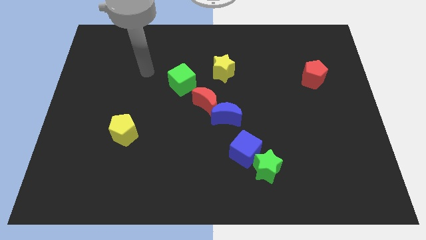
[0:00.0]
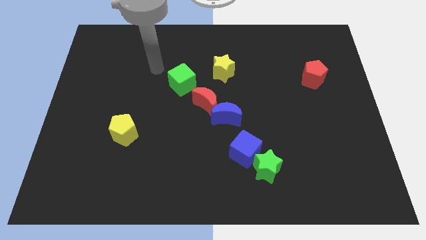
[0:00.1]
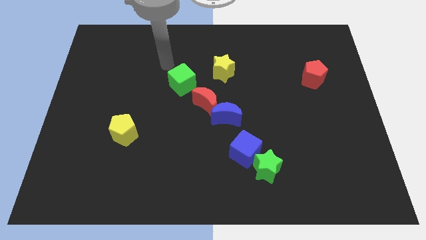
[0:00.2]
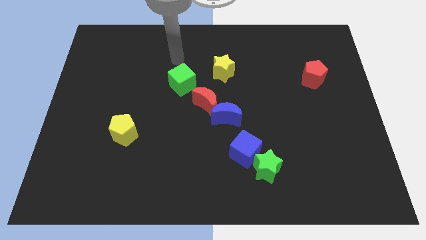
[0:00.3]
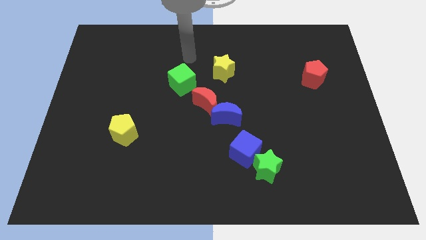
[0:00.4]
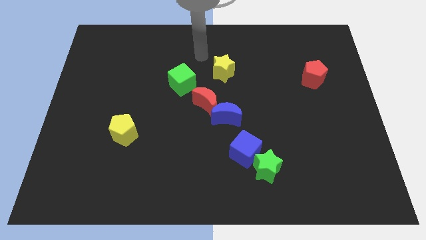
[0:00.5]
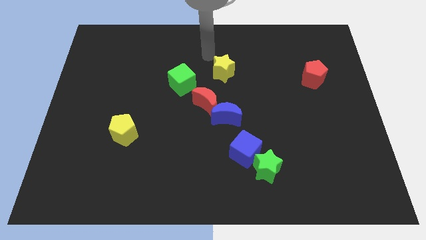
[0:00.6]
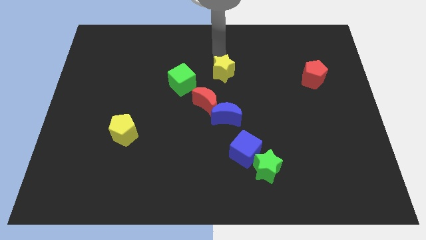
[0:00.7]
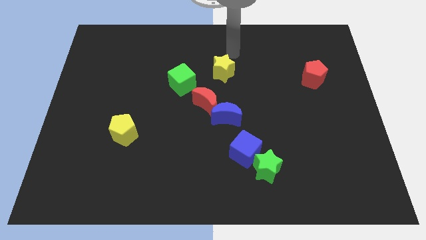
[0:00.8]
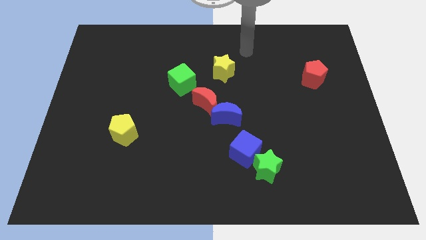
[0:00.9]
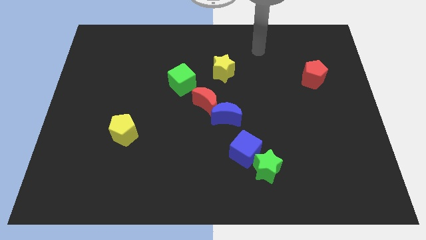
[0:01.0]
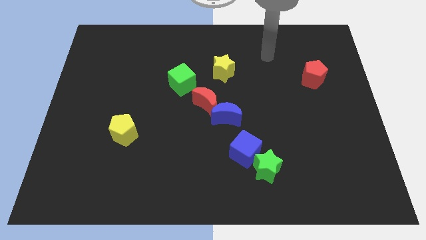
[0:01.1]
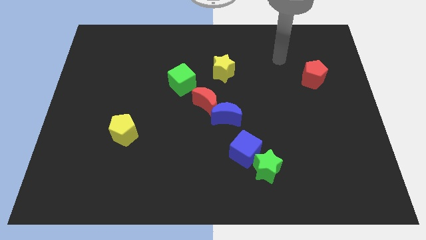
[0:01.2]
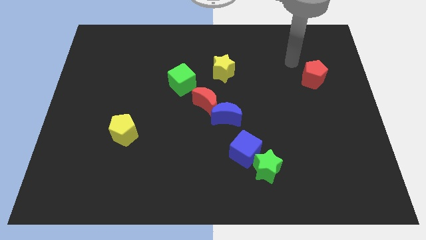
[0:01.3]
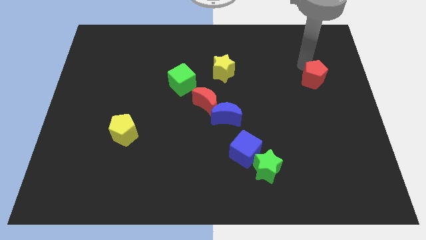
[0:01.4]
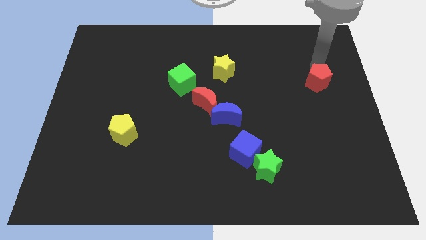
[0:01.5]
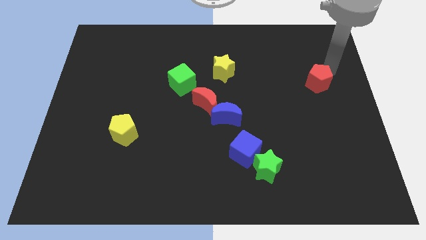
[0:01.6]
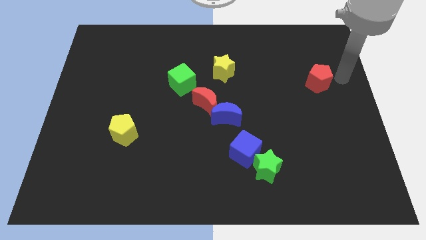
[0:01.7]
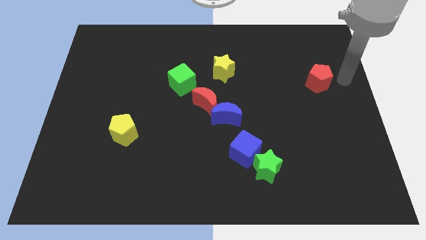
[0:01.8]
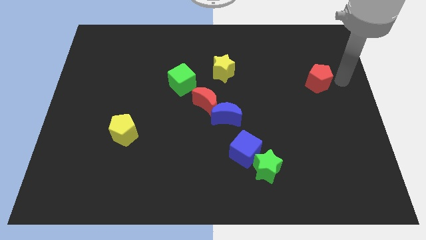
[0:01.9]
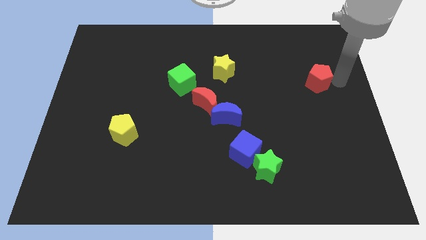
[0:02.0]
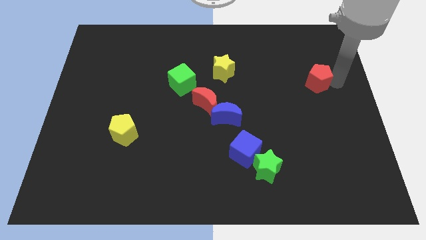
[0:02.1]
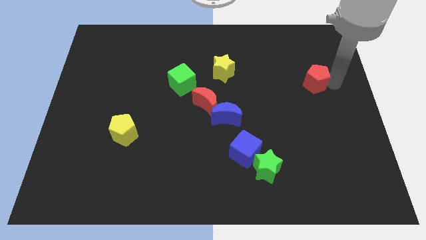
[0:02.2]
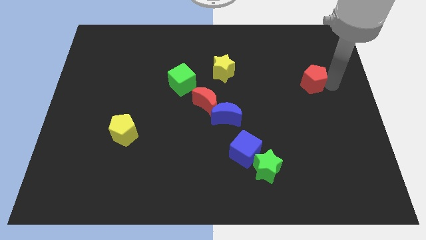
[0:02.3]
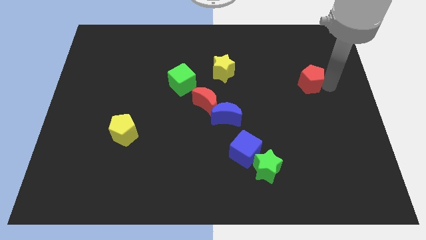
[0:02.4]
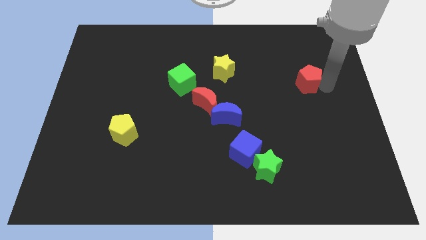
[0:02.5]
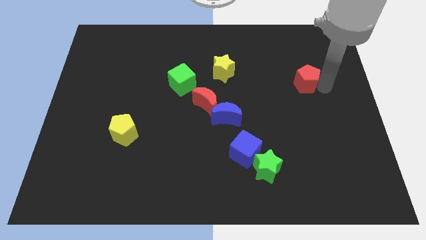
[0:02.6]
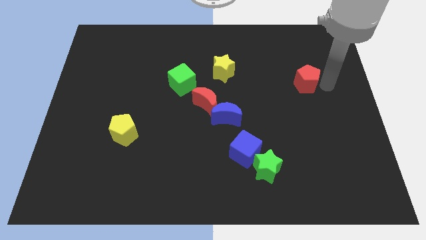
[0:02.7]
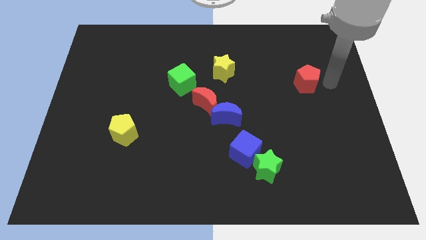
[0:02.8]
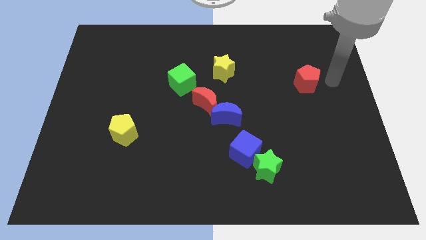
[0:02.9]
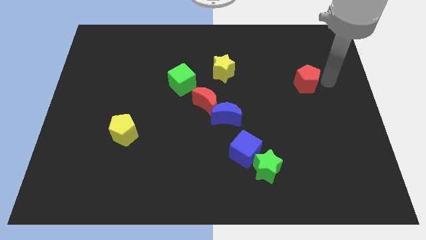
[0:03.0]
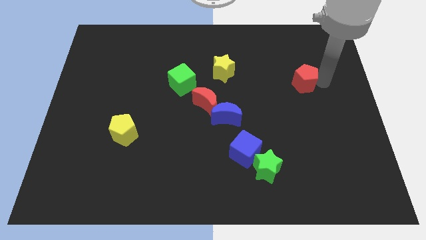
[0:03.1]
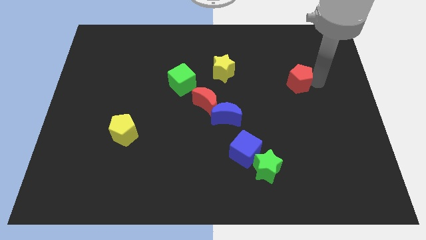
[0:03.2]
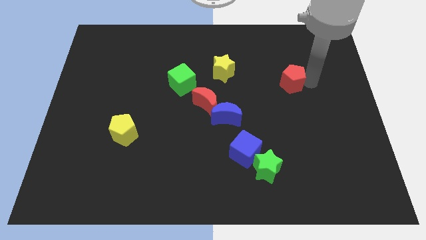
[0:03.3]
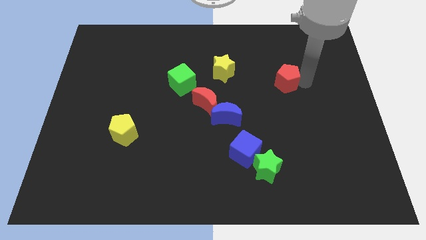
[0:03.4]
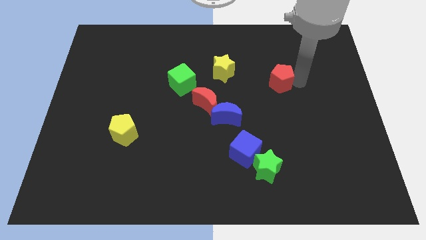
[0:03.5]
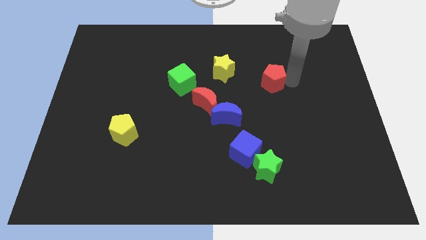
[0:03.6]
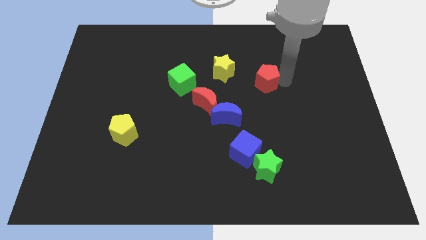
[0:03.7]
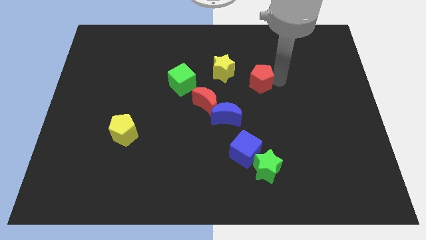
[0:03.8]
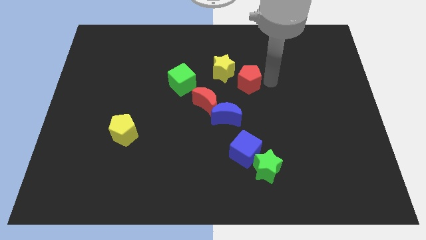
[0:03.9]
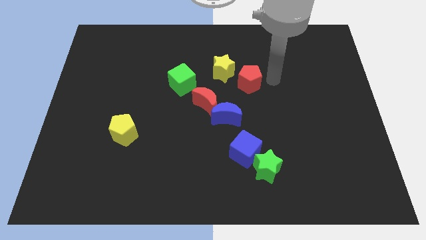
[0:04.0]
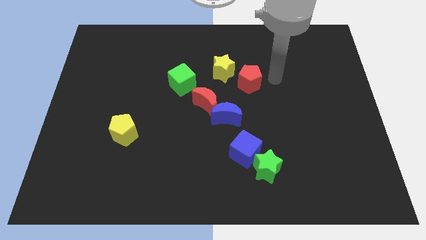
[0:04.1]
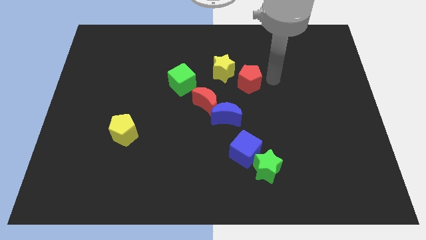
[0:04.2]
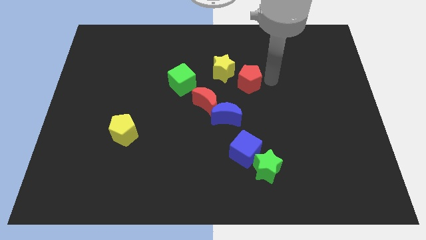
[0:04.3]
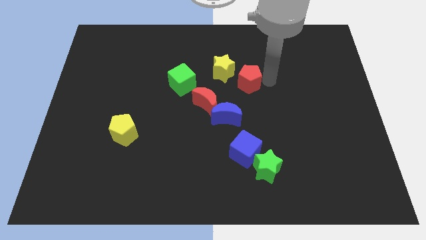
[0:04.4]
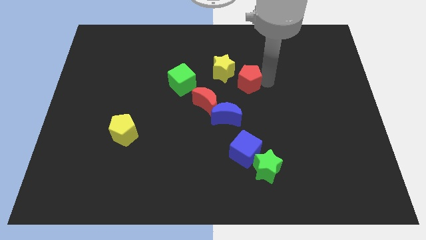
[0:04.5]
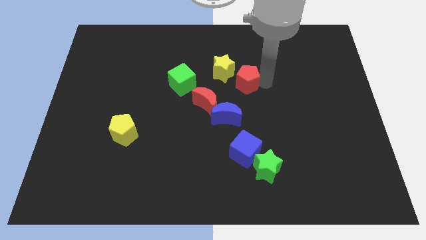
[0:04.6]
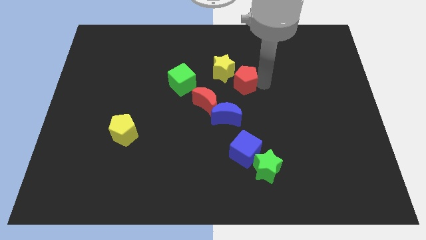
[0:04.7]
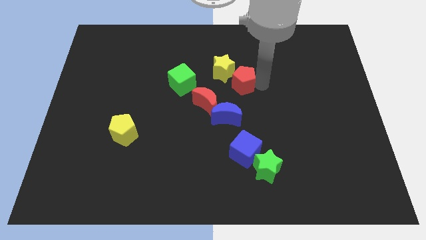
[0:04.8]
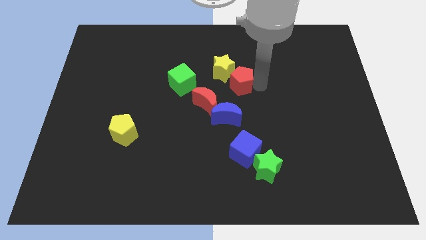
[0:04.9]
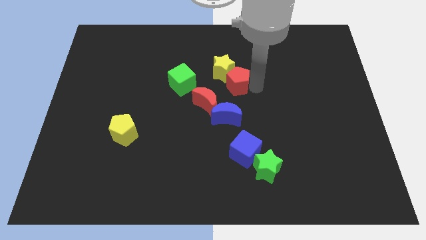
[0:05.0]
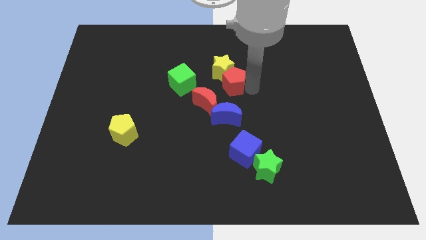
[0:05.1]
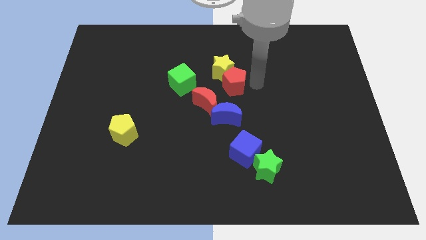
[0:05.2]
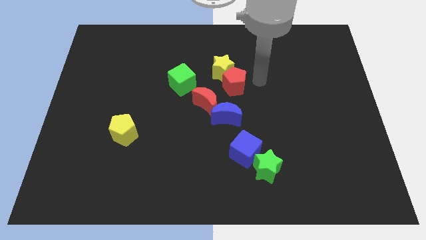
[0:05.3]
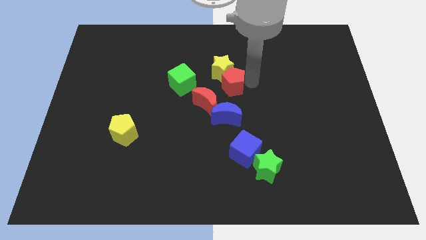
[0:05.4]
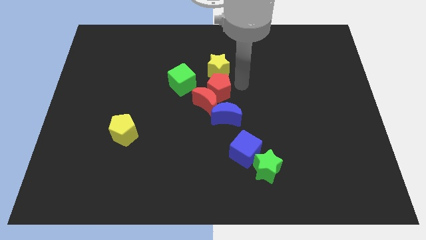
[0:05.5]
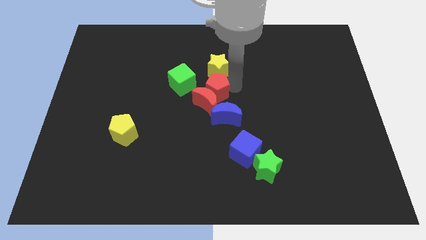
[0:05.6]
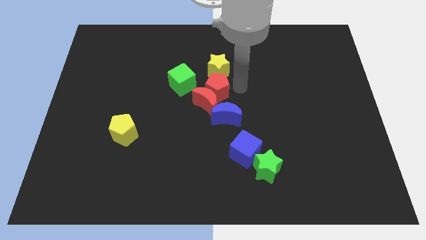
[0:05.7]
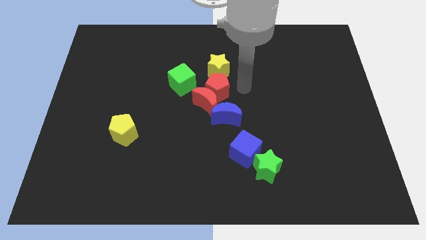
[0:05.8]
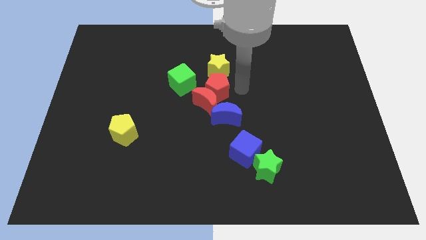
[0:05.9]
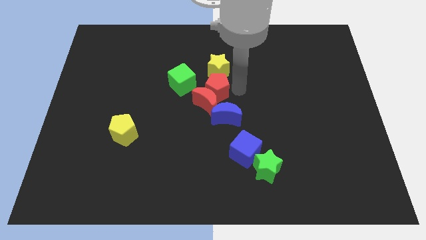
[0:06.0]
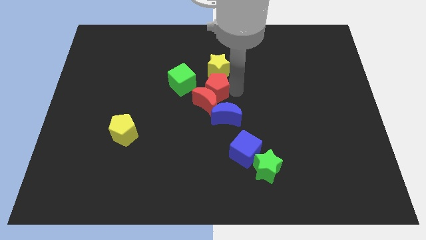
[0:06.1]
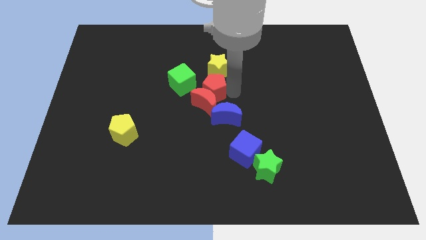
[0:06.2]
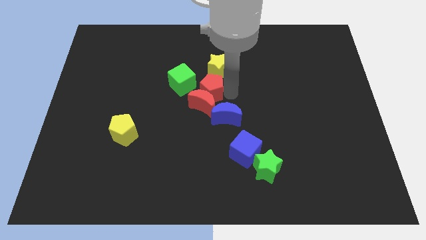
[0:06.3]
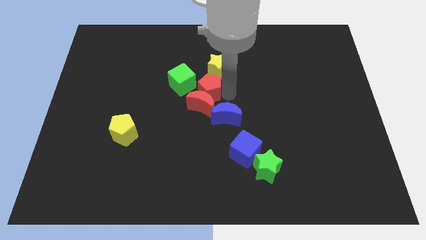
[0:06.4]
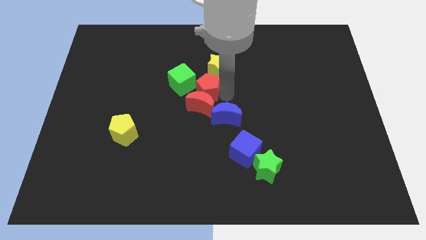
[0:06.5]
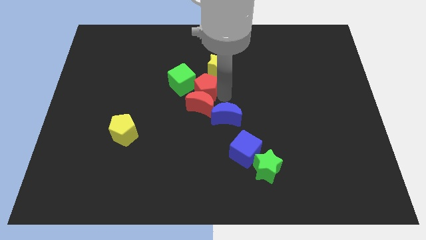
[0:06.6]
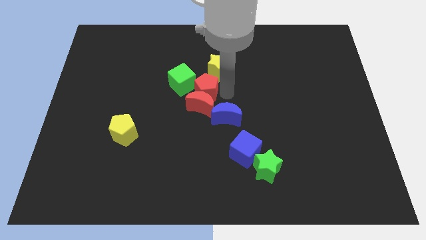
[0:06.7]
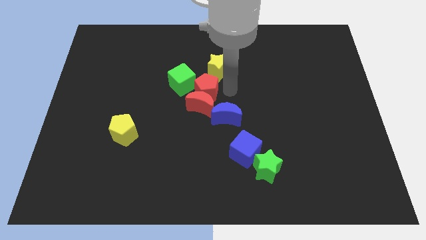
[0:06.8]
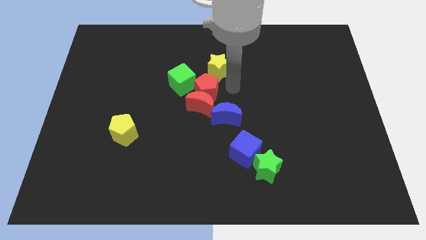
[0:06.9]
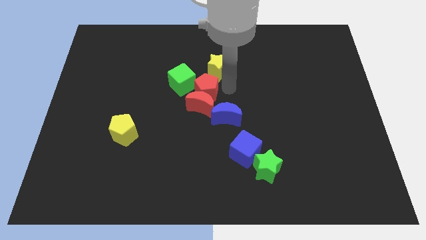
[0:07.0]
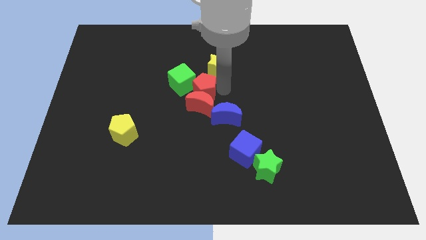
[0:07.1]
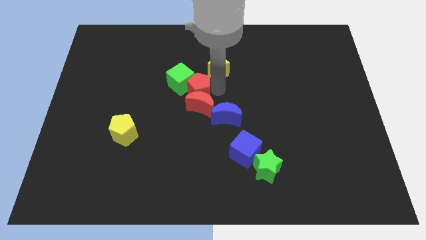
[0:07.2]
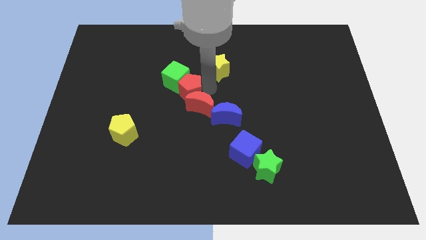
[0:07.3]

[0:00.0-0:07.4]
push the red pentagon to the bottom side of the green cube
